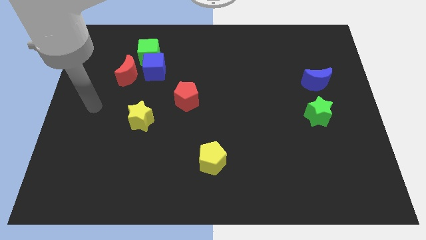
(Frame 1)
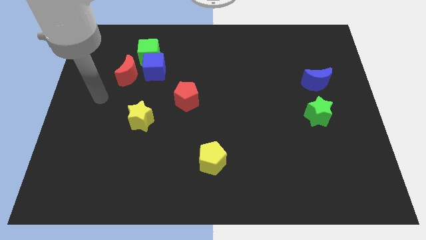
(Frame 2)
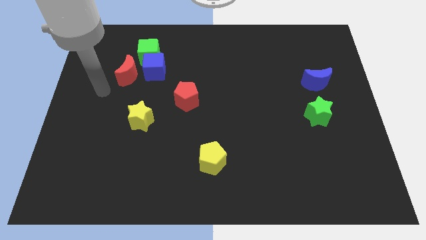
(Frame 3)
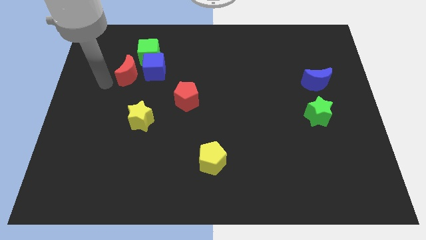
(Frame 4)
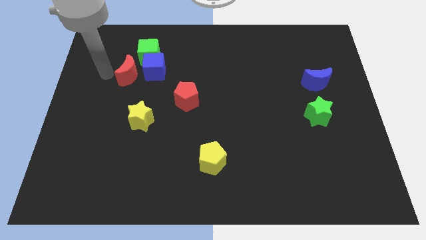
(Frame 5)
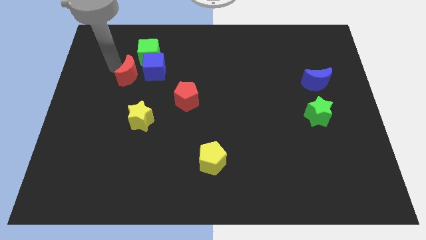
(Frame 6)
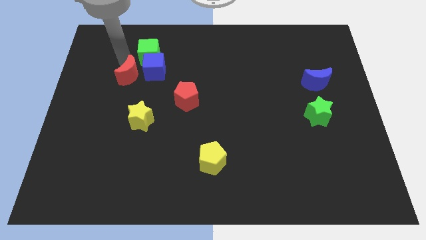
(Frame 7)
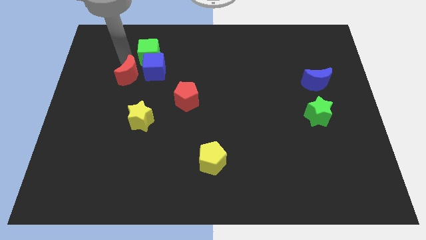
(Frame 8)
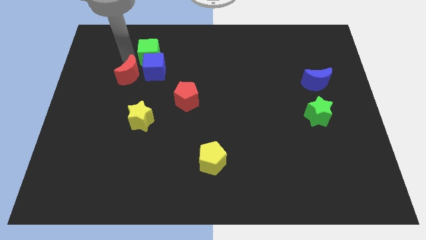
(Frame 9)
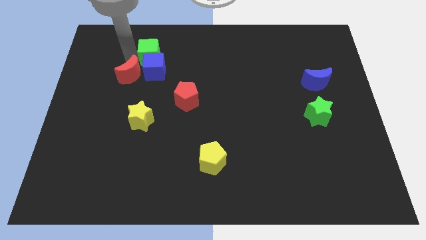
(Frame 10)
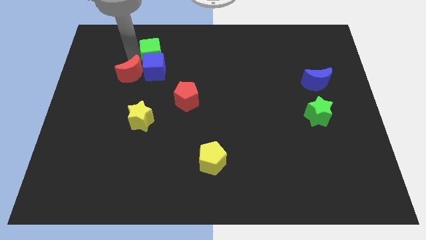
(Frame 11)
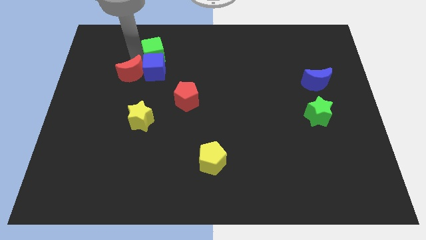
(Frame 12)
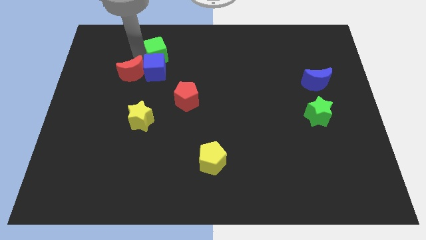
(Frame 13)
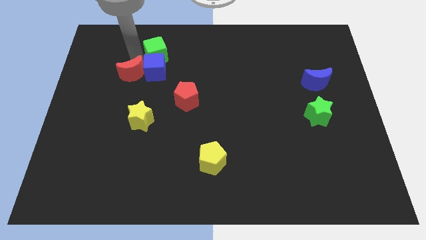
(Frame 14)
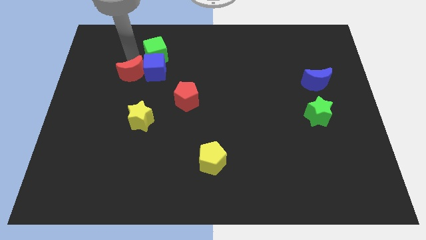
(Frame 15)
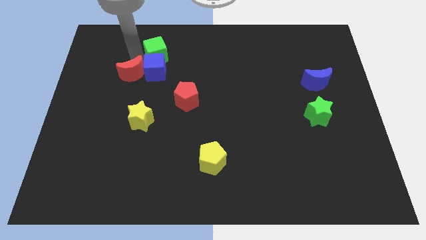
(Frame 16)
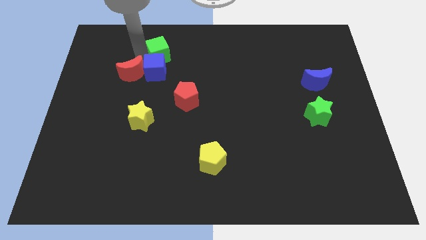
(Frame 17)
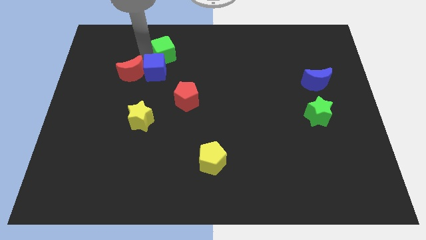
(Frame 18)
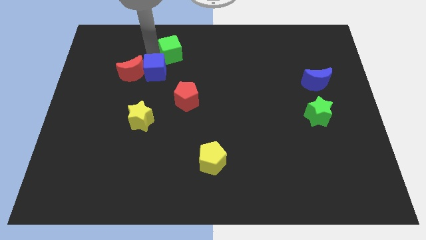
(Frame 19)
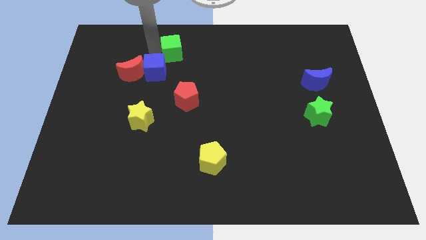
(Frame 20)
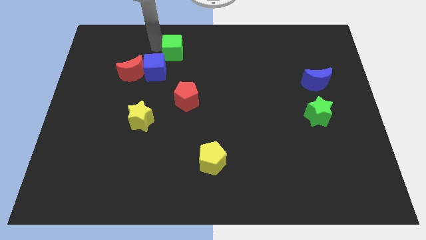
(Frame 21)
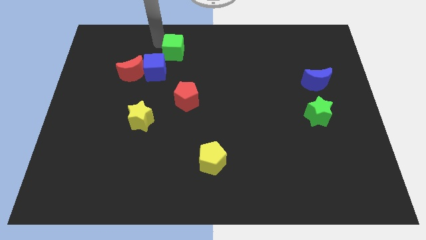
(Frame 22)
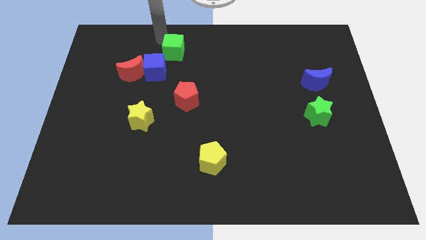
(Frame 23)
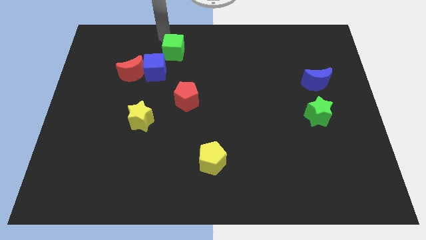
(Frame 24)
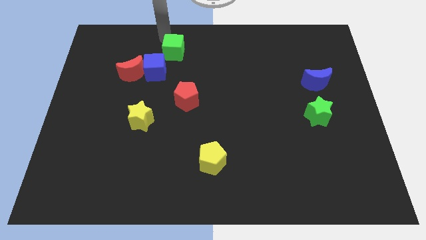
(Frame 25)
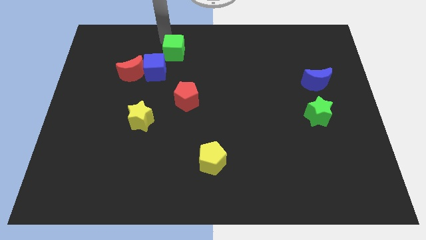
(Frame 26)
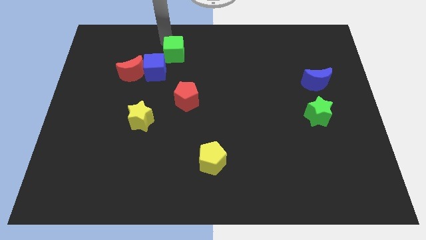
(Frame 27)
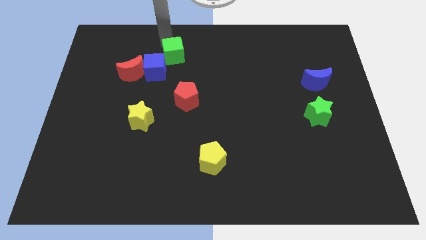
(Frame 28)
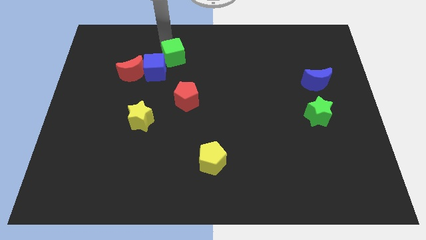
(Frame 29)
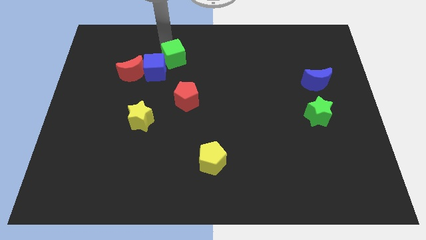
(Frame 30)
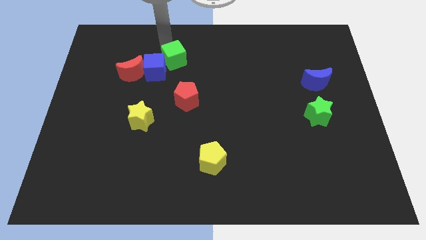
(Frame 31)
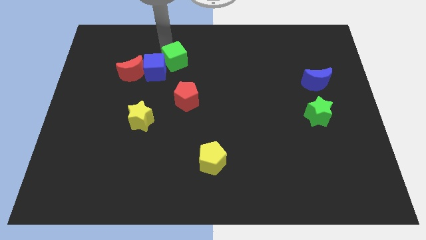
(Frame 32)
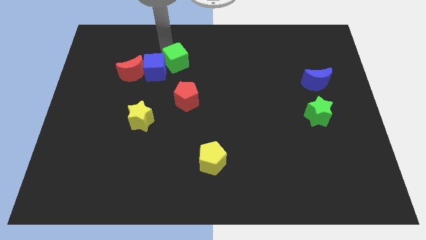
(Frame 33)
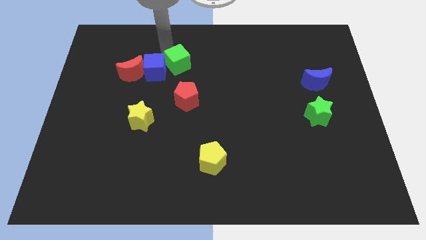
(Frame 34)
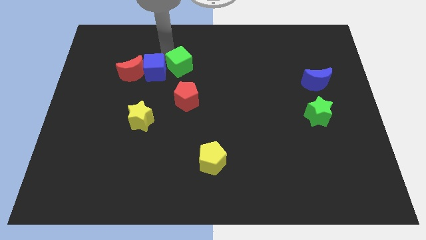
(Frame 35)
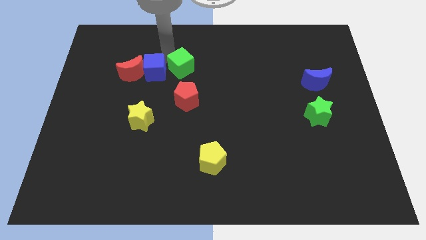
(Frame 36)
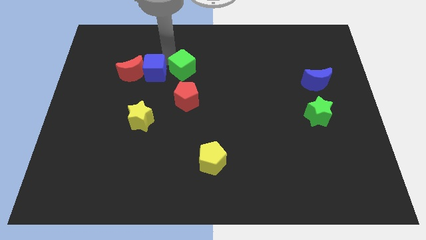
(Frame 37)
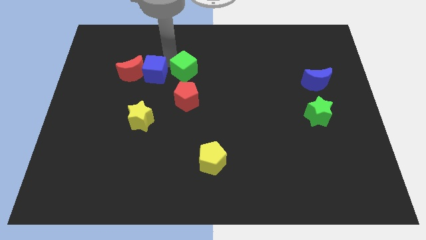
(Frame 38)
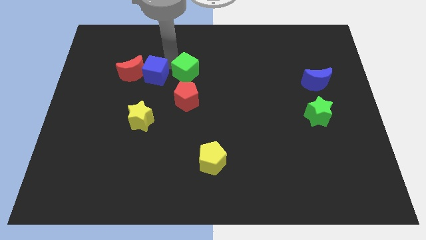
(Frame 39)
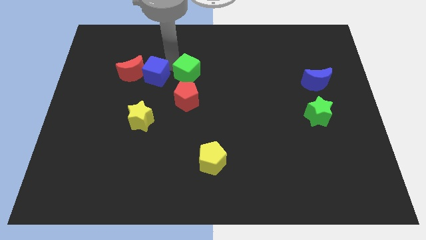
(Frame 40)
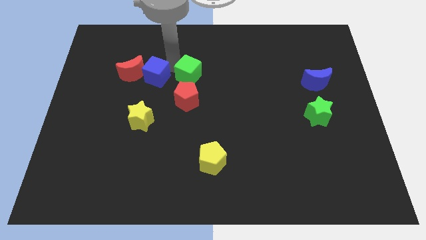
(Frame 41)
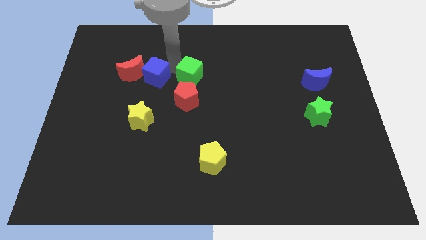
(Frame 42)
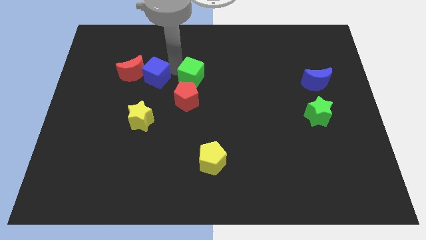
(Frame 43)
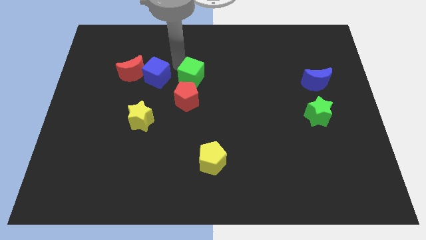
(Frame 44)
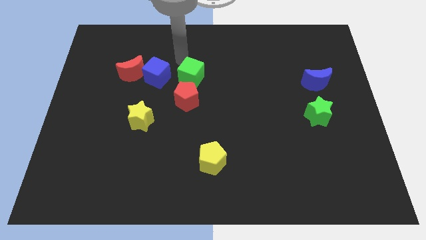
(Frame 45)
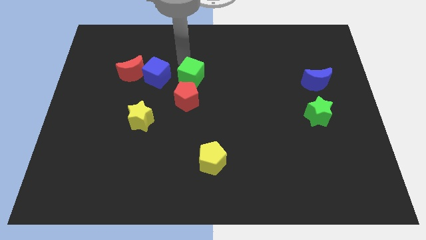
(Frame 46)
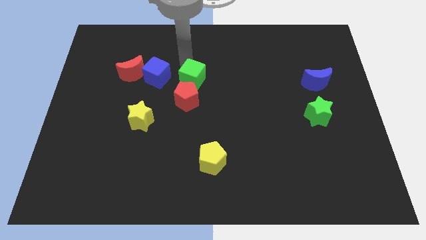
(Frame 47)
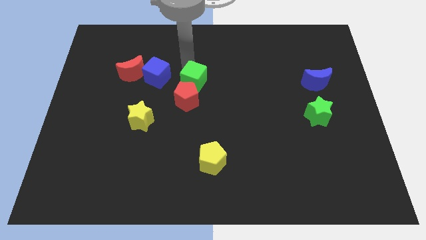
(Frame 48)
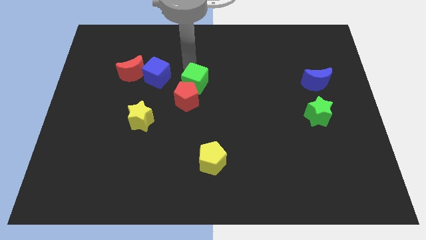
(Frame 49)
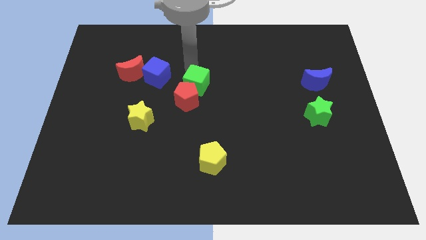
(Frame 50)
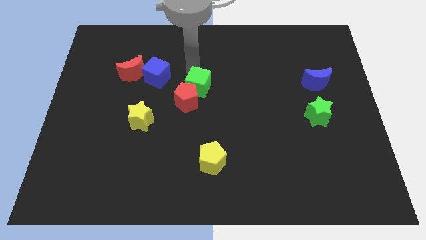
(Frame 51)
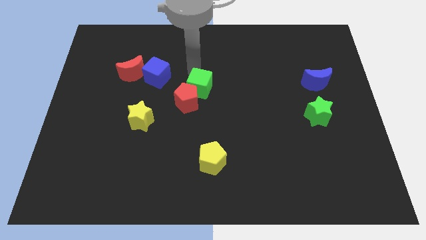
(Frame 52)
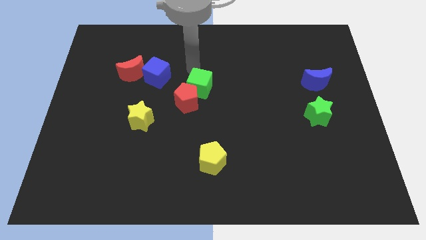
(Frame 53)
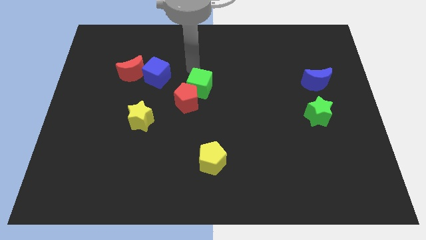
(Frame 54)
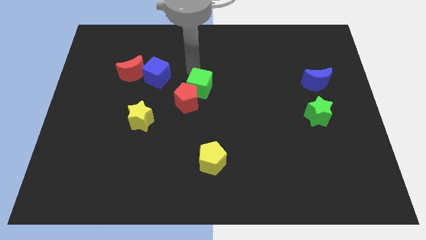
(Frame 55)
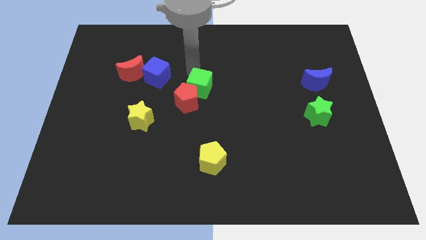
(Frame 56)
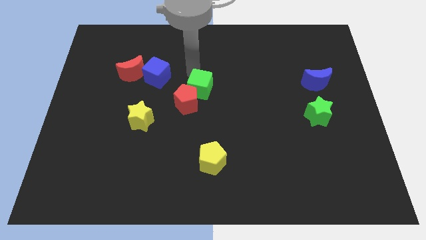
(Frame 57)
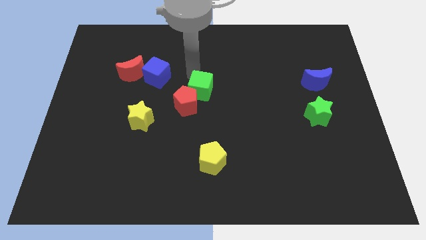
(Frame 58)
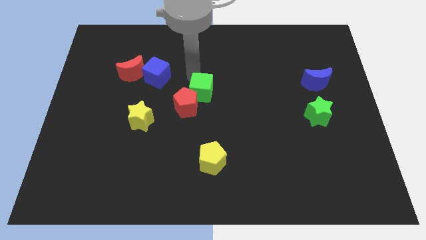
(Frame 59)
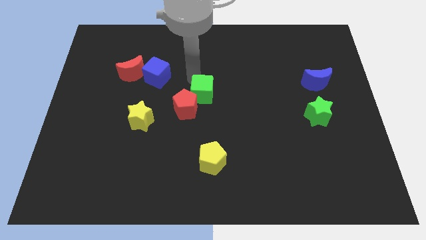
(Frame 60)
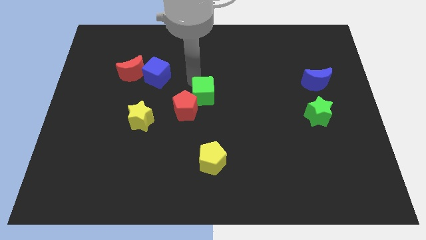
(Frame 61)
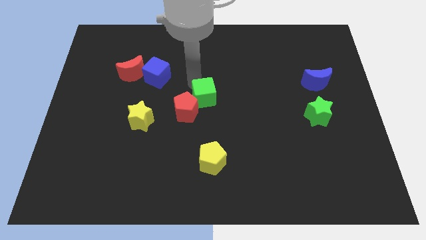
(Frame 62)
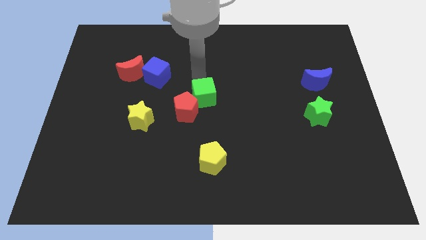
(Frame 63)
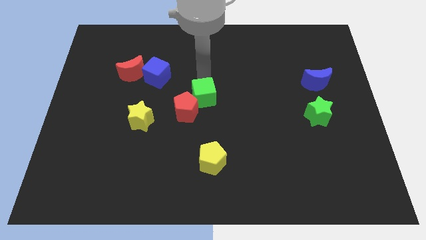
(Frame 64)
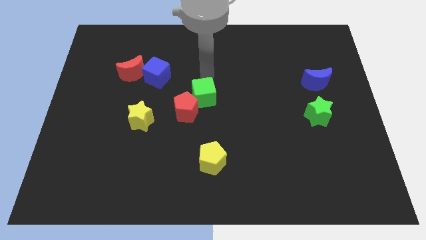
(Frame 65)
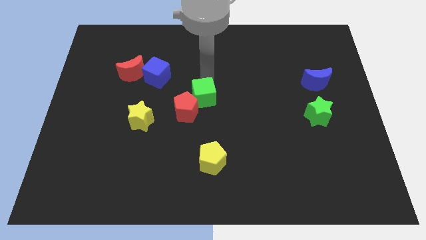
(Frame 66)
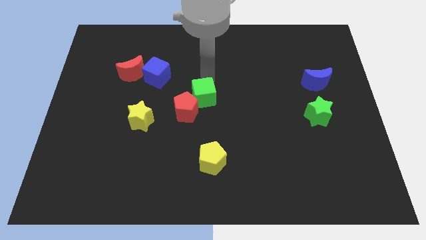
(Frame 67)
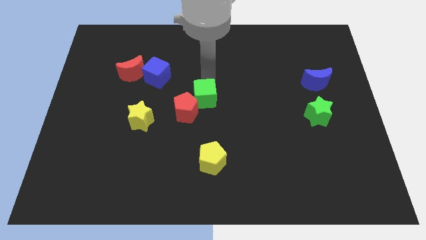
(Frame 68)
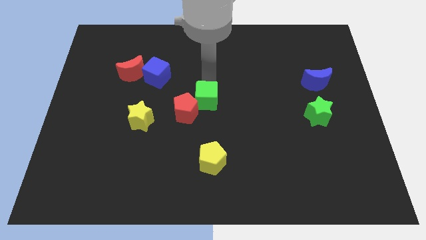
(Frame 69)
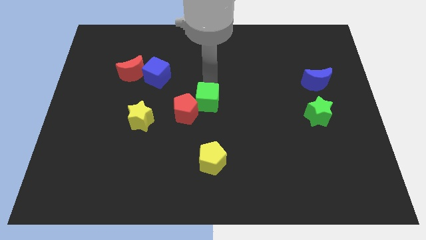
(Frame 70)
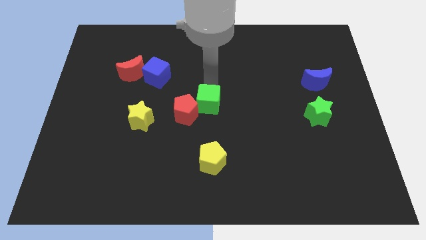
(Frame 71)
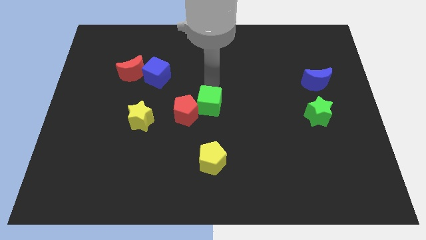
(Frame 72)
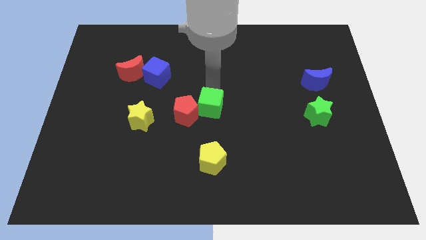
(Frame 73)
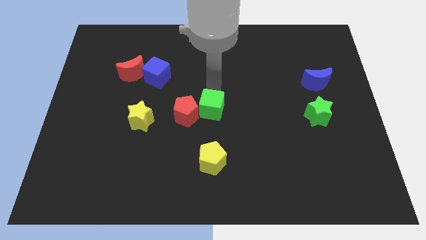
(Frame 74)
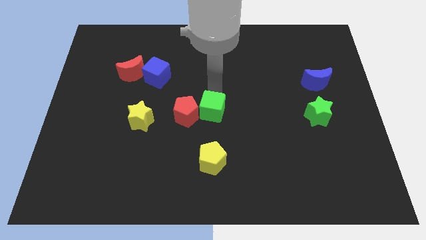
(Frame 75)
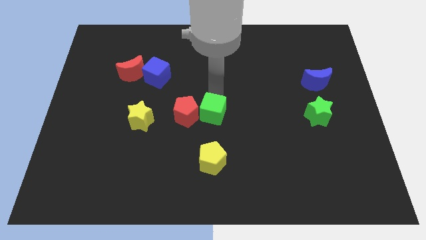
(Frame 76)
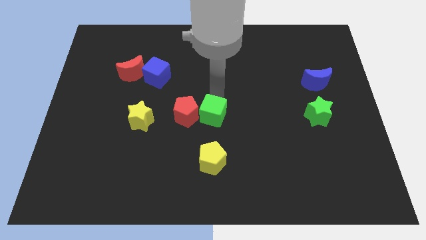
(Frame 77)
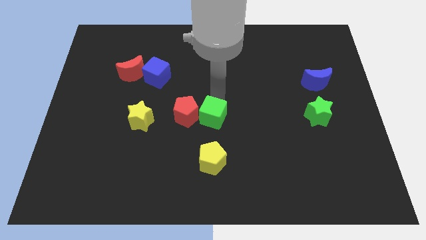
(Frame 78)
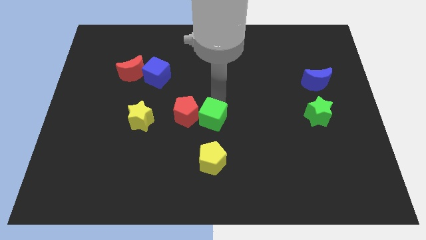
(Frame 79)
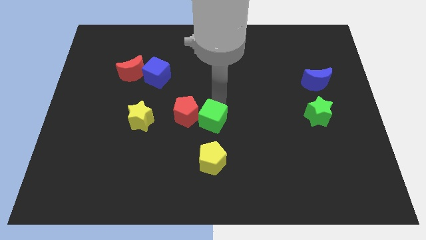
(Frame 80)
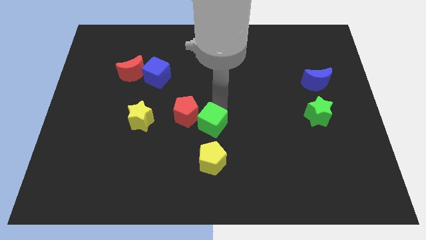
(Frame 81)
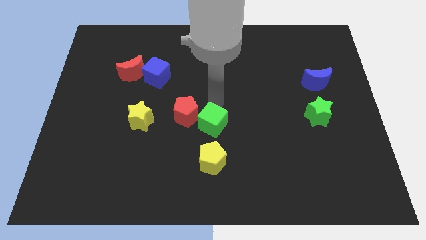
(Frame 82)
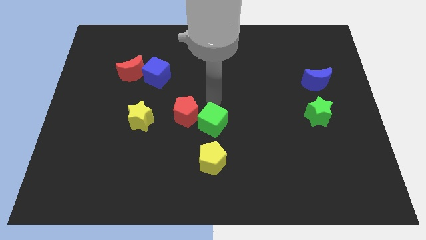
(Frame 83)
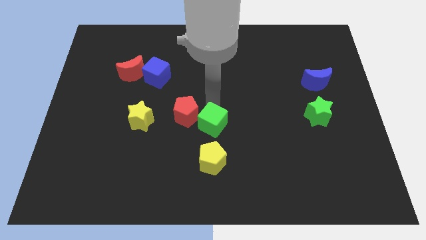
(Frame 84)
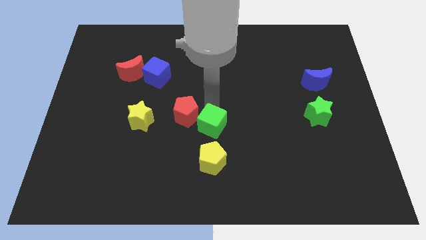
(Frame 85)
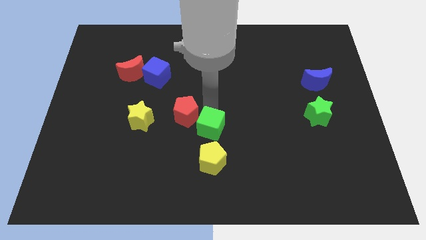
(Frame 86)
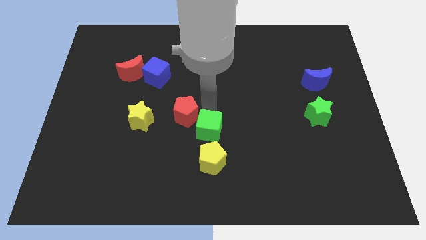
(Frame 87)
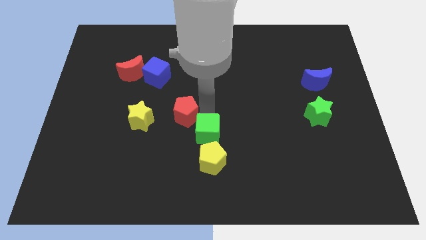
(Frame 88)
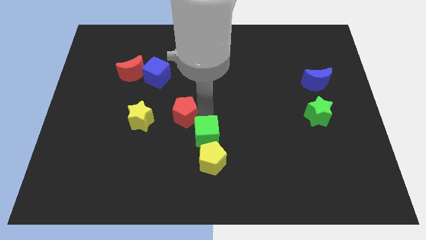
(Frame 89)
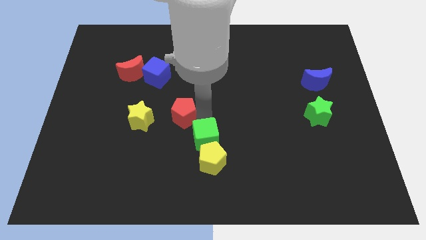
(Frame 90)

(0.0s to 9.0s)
push the green cube next to the yellow pentagon
